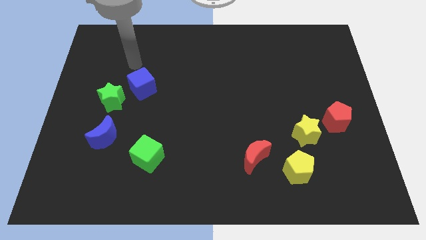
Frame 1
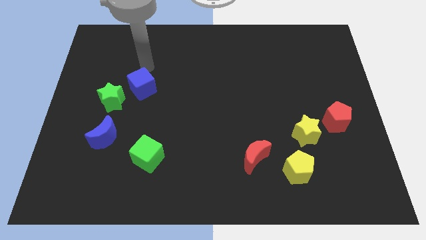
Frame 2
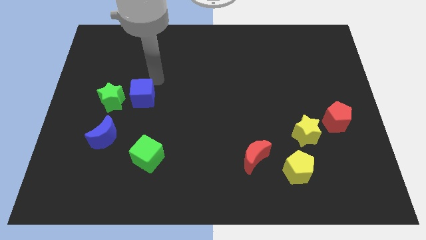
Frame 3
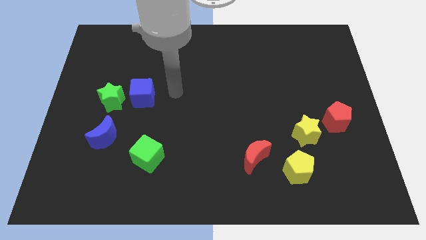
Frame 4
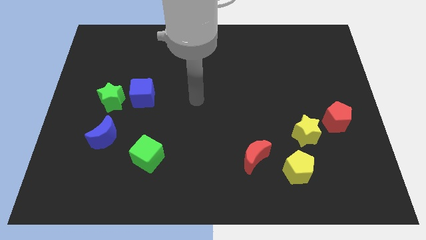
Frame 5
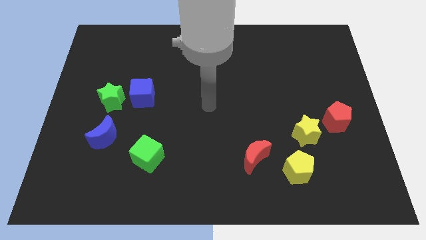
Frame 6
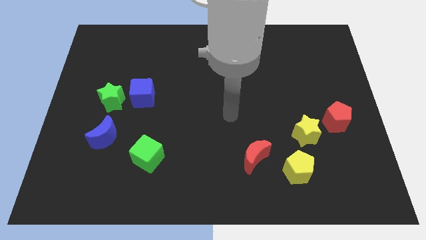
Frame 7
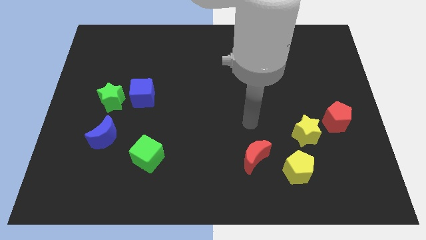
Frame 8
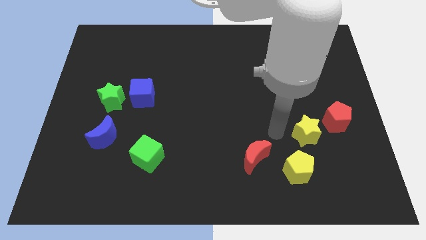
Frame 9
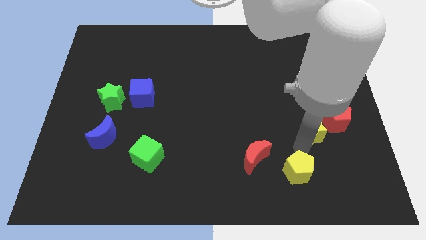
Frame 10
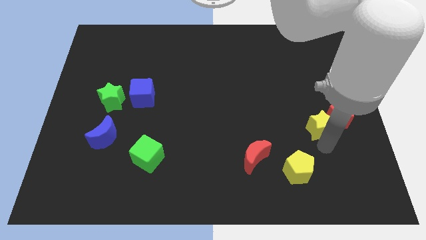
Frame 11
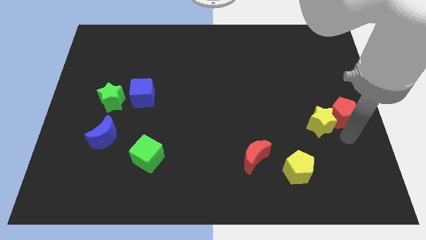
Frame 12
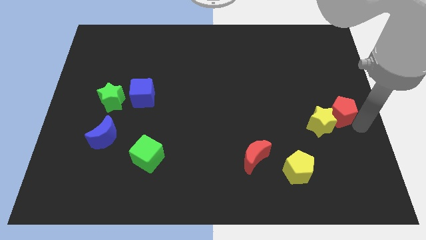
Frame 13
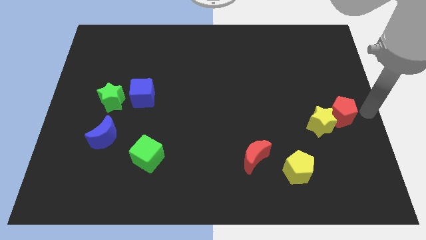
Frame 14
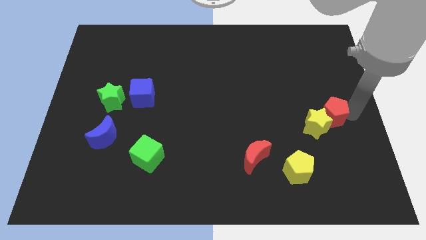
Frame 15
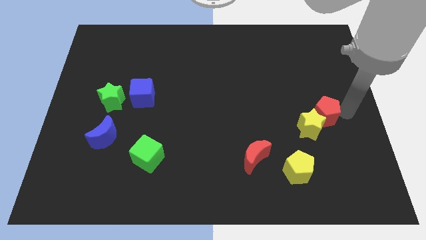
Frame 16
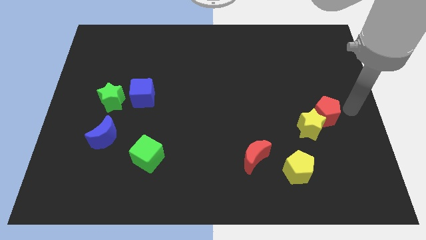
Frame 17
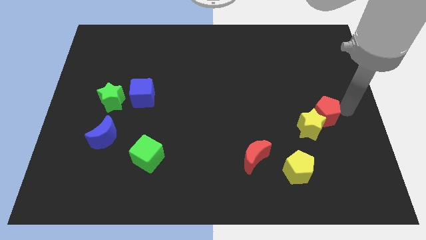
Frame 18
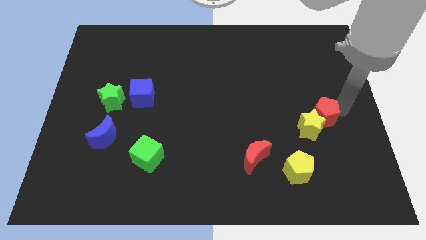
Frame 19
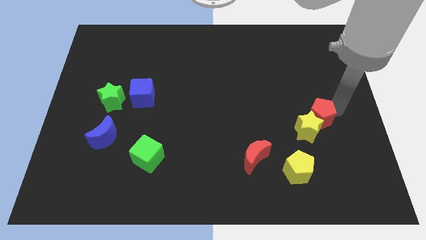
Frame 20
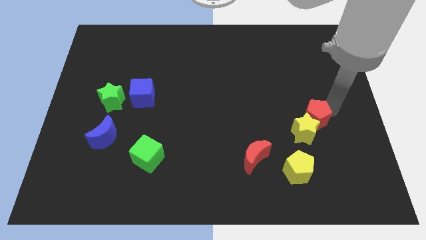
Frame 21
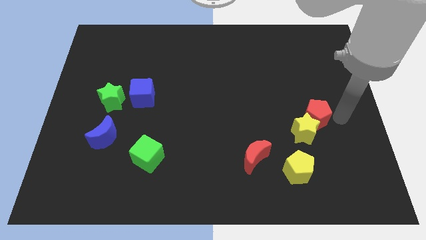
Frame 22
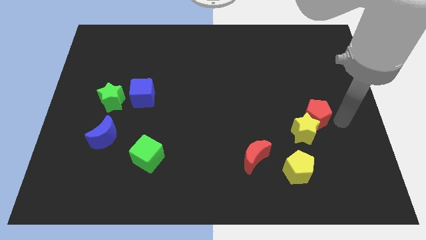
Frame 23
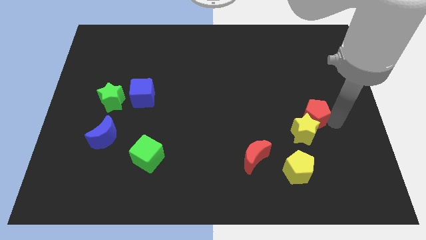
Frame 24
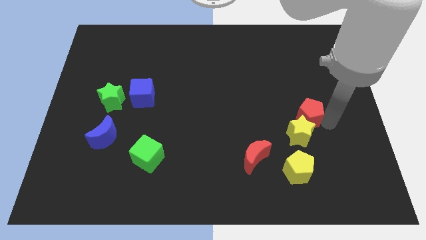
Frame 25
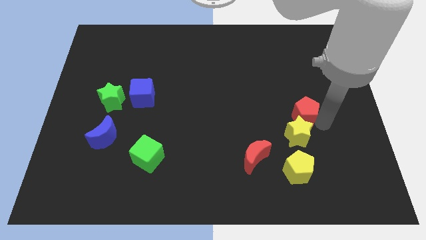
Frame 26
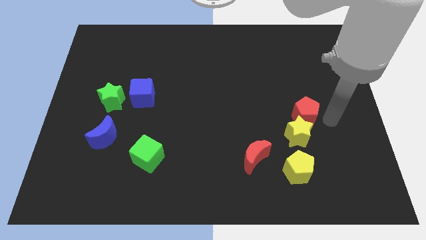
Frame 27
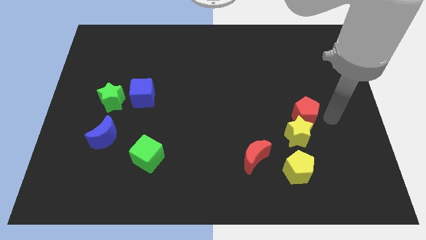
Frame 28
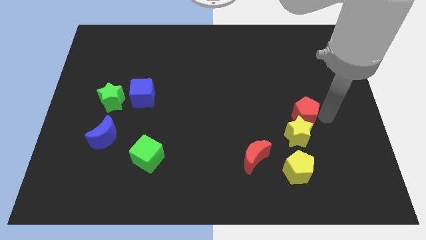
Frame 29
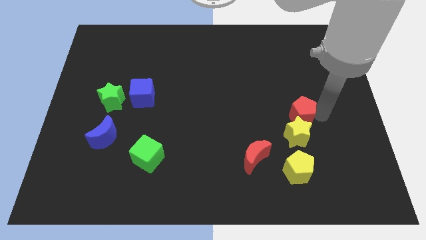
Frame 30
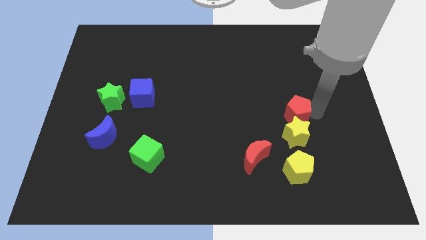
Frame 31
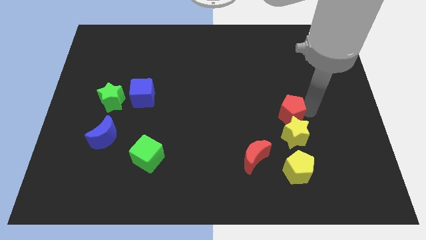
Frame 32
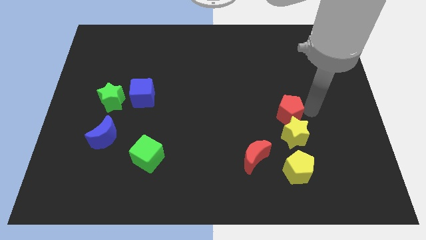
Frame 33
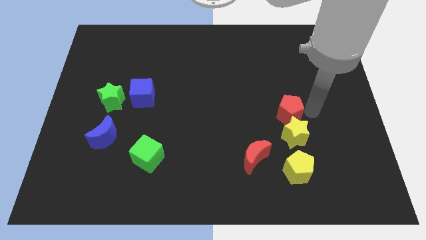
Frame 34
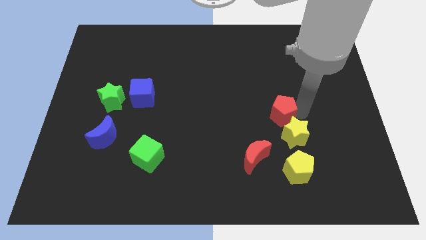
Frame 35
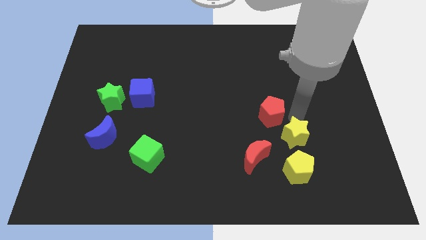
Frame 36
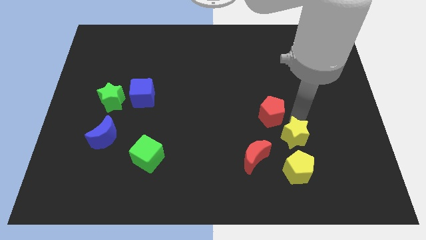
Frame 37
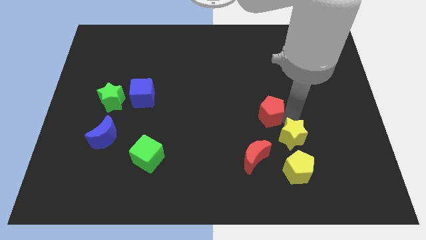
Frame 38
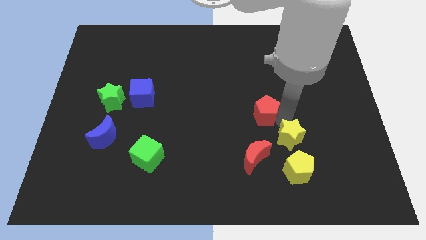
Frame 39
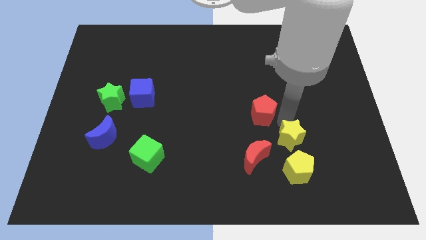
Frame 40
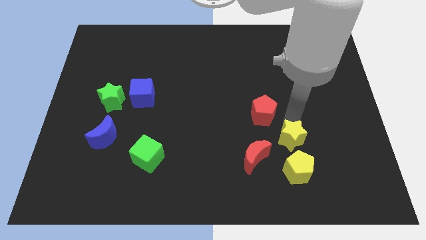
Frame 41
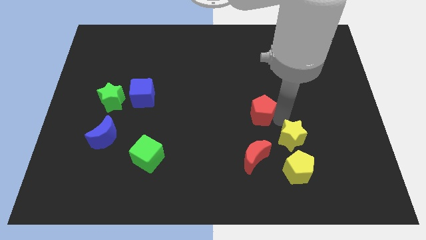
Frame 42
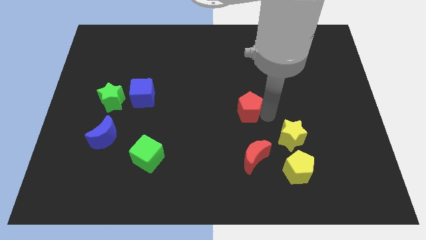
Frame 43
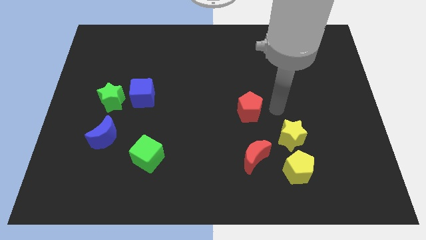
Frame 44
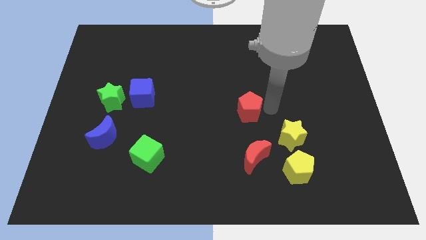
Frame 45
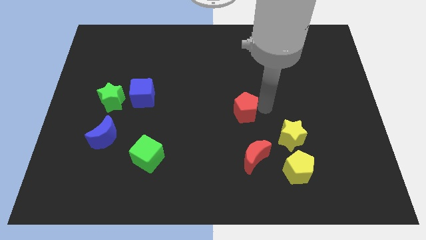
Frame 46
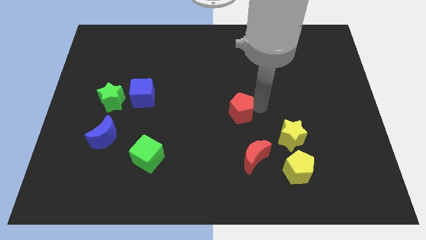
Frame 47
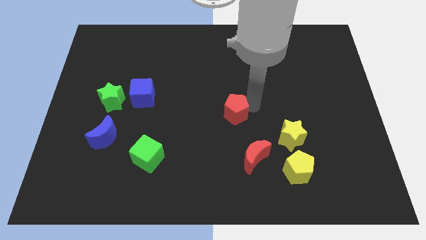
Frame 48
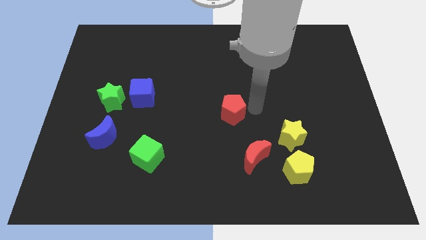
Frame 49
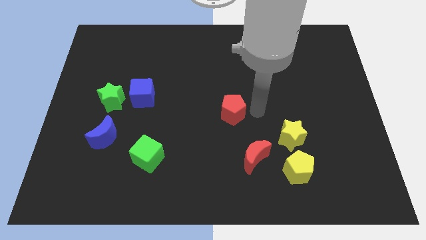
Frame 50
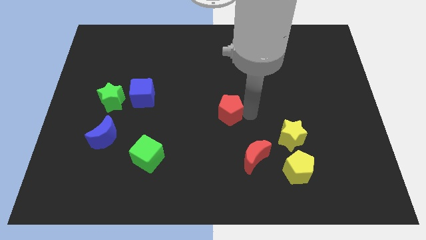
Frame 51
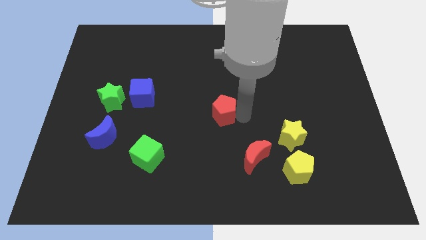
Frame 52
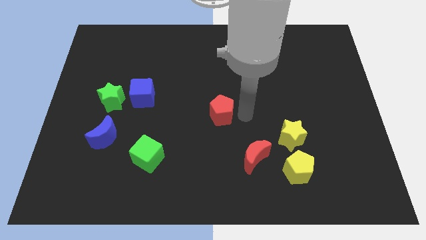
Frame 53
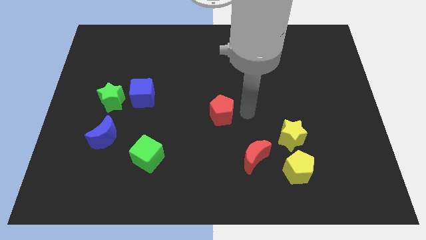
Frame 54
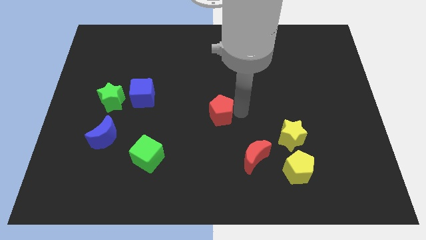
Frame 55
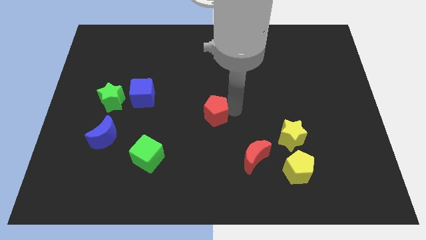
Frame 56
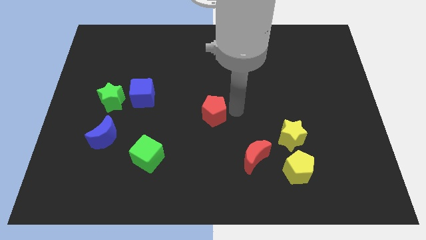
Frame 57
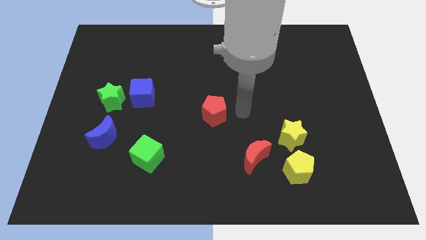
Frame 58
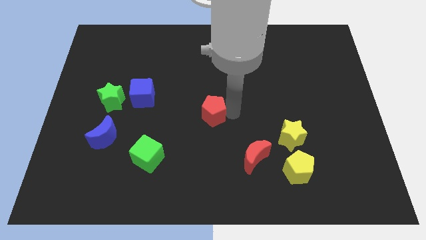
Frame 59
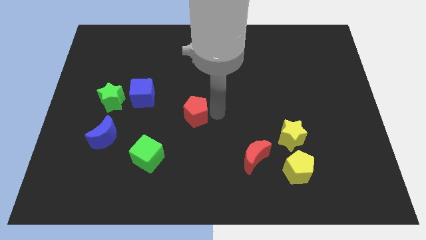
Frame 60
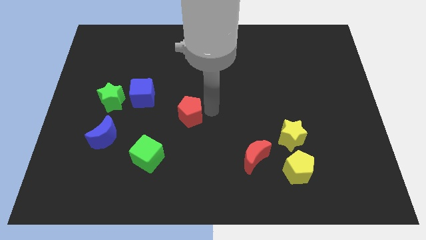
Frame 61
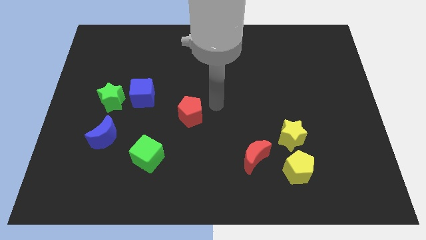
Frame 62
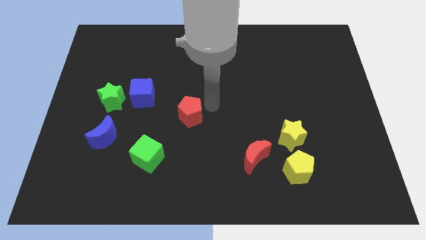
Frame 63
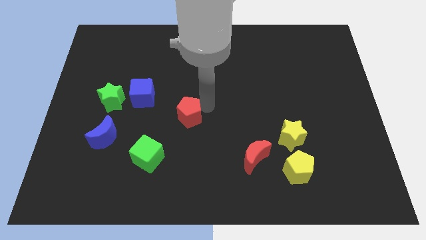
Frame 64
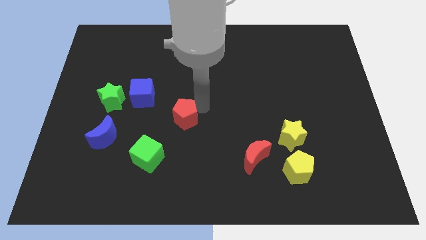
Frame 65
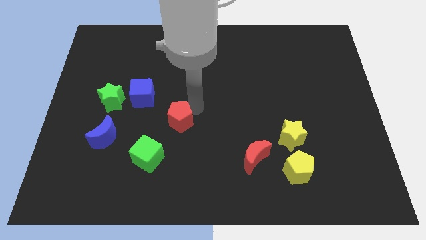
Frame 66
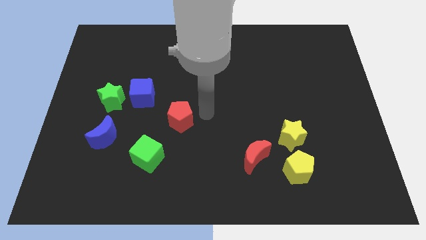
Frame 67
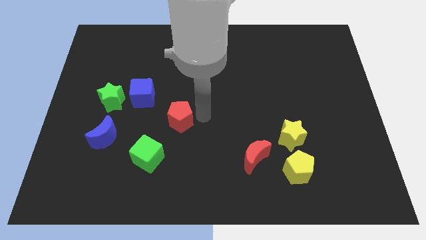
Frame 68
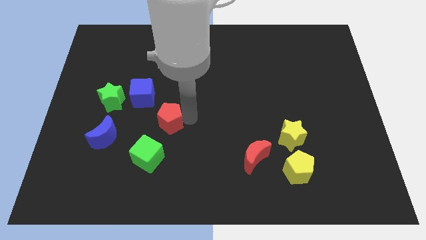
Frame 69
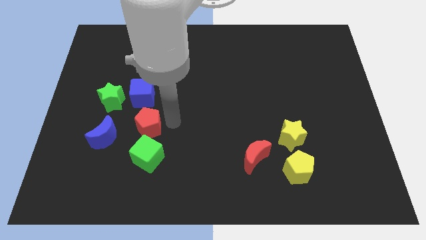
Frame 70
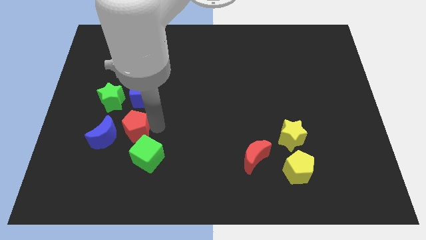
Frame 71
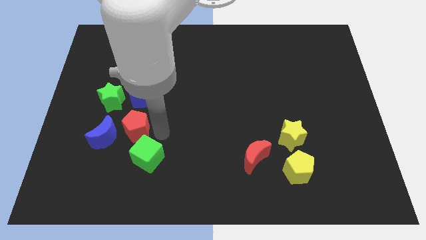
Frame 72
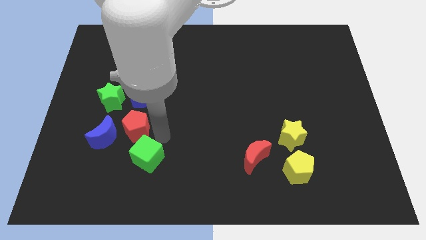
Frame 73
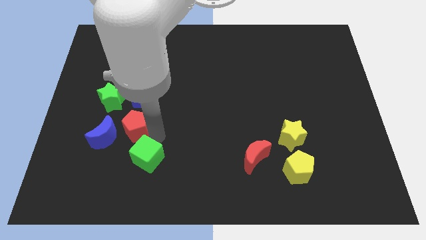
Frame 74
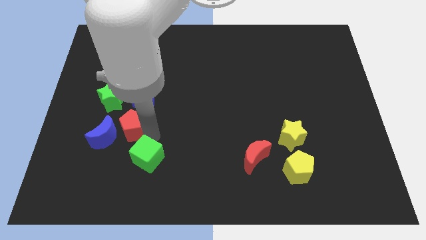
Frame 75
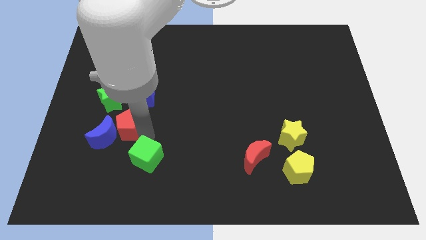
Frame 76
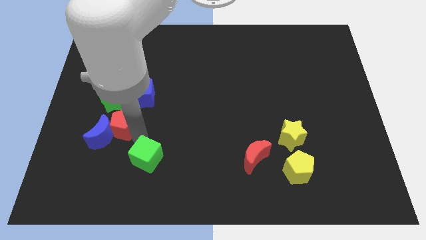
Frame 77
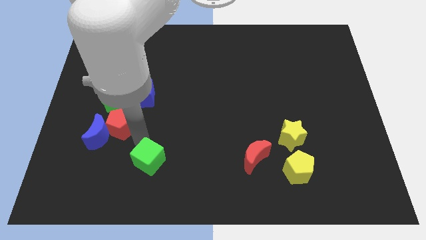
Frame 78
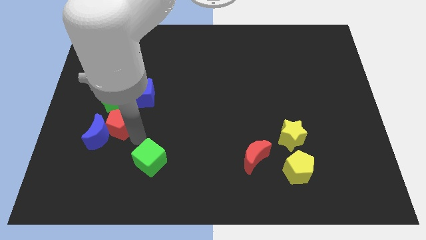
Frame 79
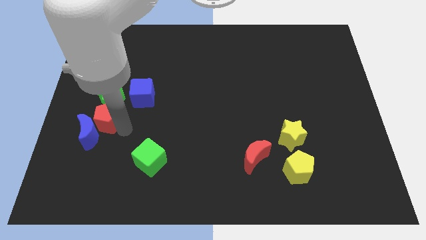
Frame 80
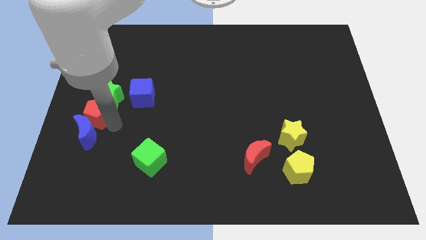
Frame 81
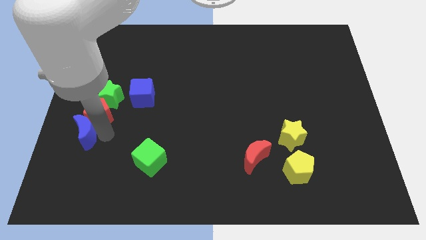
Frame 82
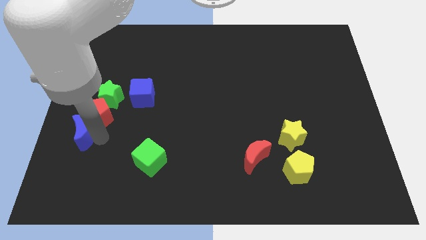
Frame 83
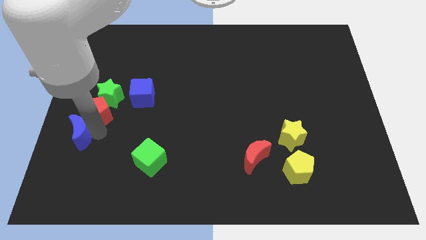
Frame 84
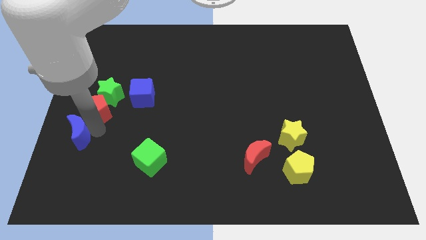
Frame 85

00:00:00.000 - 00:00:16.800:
move the red pentagon to the left of the blue cube
